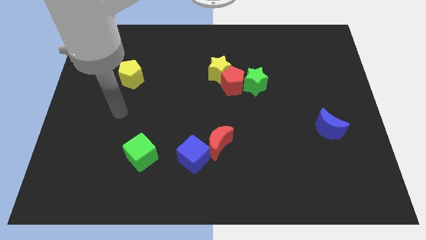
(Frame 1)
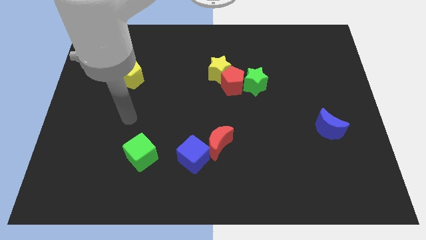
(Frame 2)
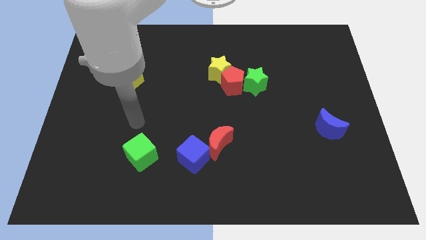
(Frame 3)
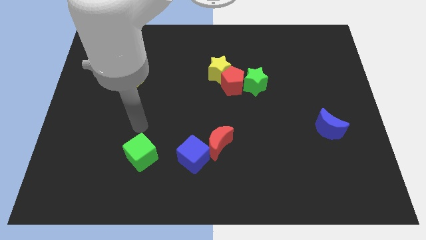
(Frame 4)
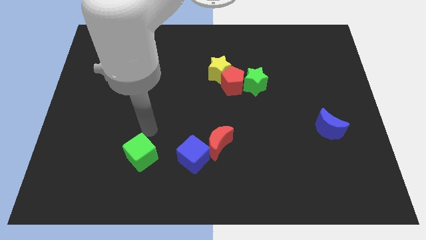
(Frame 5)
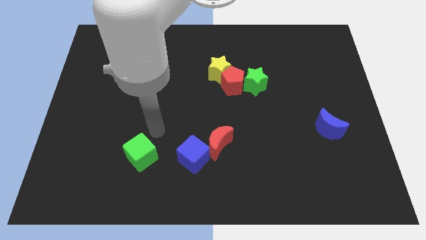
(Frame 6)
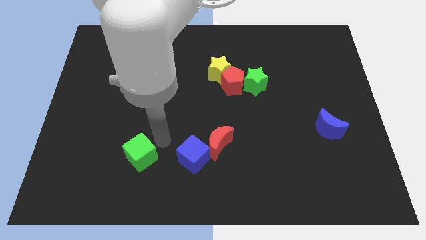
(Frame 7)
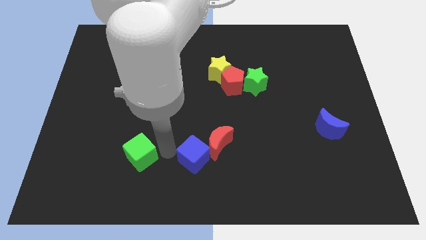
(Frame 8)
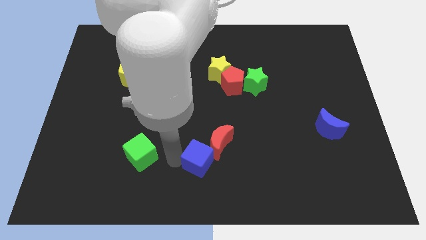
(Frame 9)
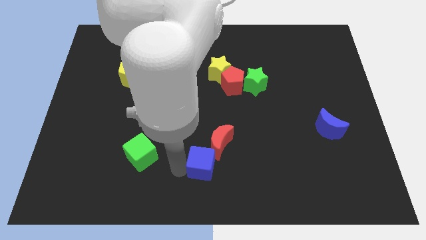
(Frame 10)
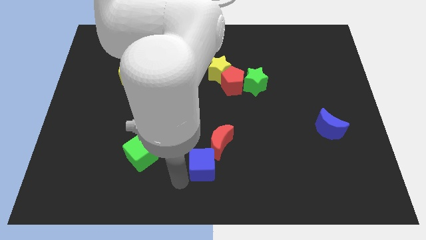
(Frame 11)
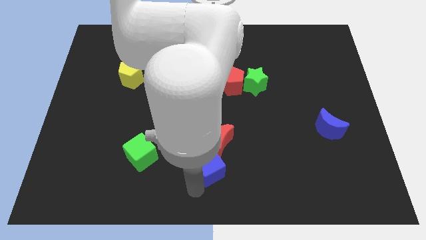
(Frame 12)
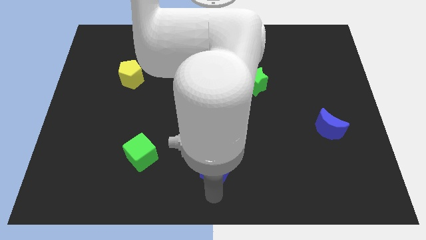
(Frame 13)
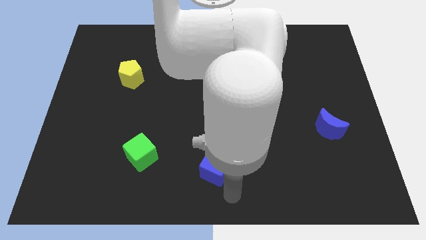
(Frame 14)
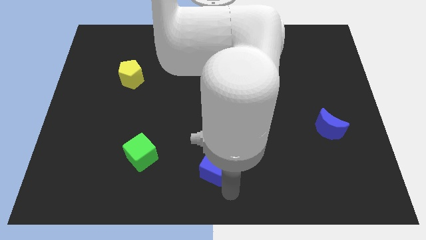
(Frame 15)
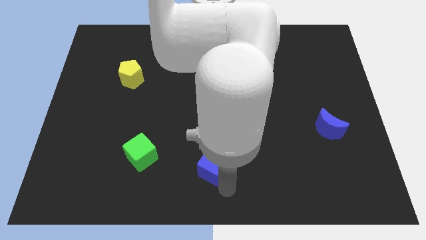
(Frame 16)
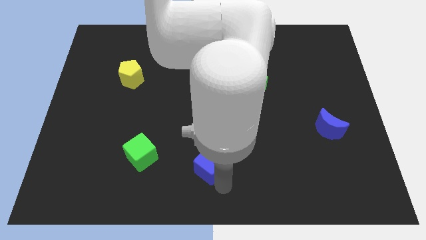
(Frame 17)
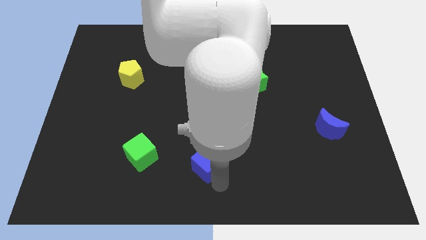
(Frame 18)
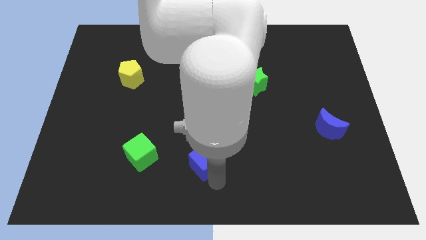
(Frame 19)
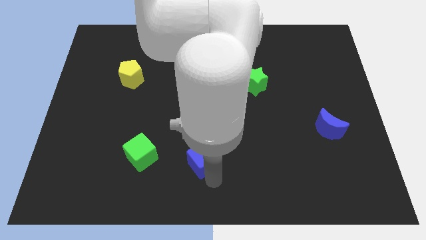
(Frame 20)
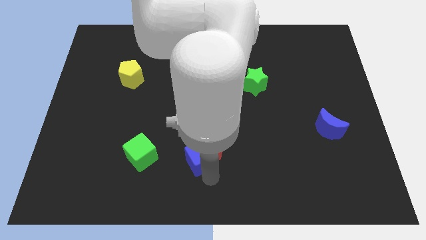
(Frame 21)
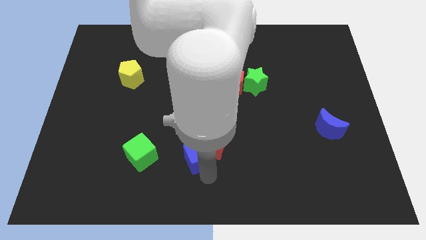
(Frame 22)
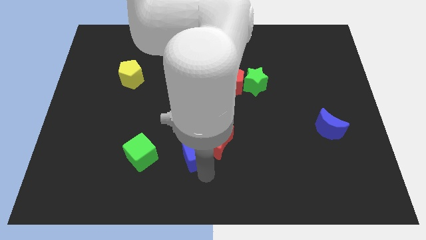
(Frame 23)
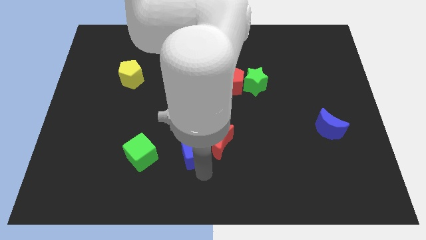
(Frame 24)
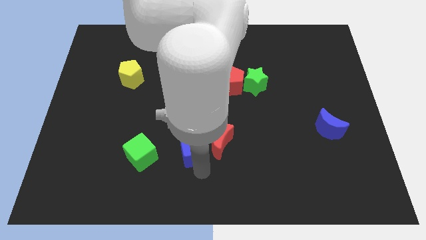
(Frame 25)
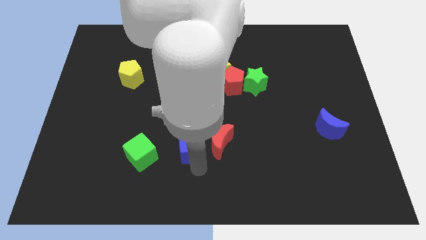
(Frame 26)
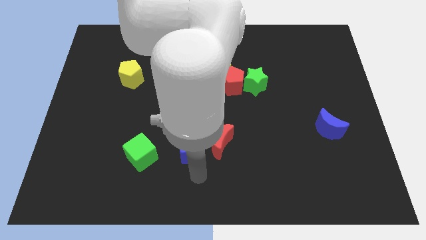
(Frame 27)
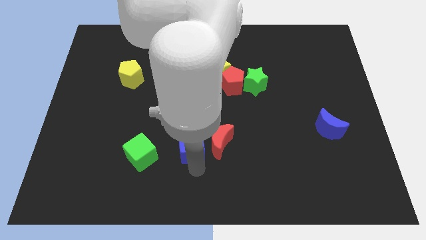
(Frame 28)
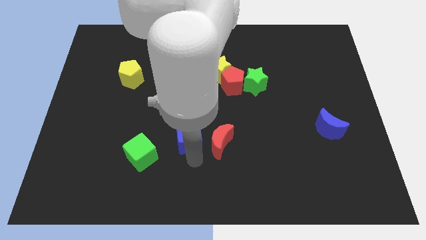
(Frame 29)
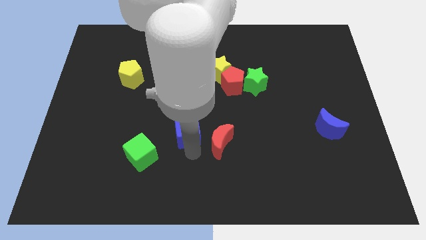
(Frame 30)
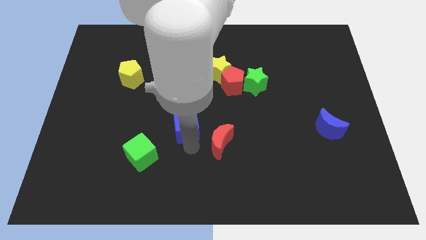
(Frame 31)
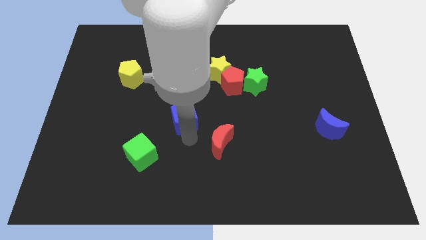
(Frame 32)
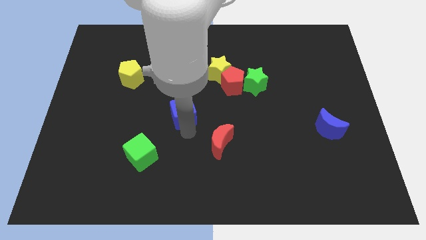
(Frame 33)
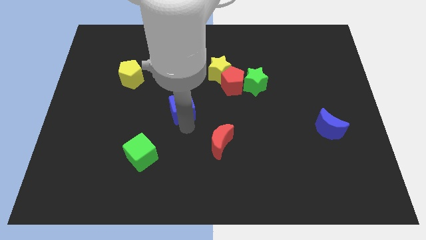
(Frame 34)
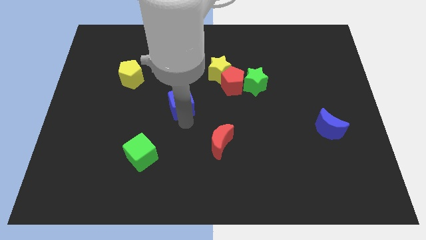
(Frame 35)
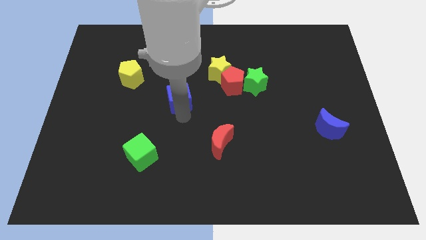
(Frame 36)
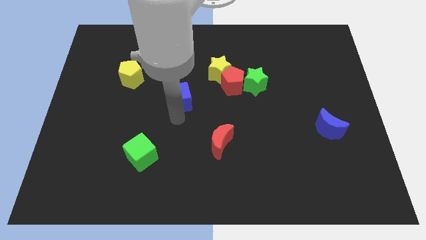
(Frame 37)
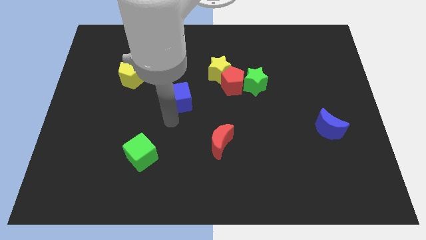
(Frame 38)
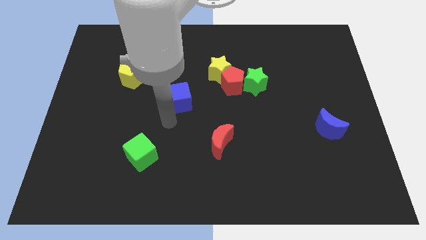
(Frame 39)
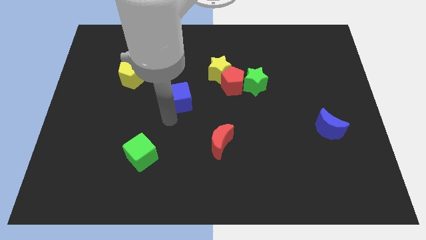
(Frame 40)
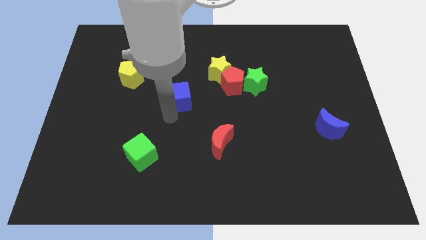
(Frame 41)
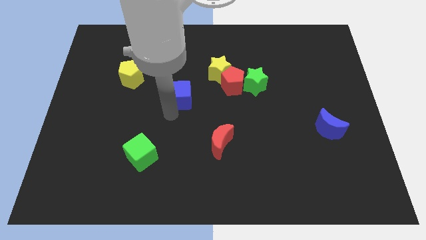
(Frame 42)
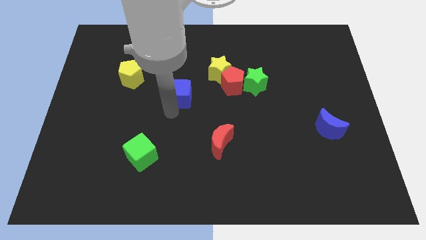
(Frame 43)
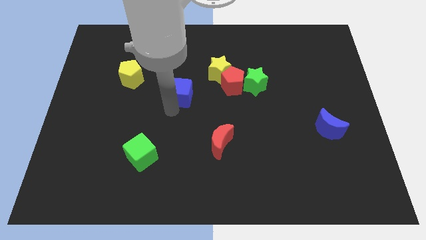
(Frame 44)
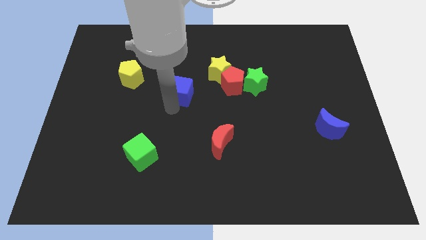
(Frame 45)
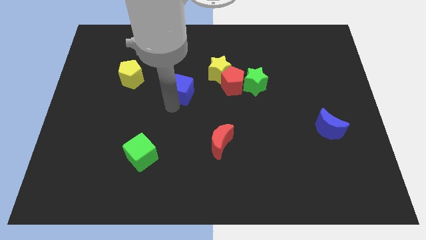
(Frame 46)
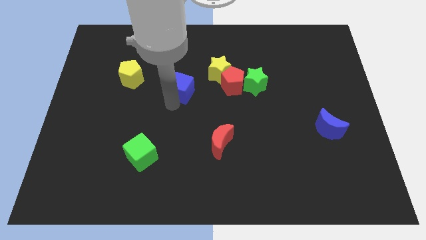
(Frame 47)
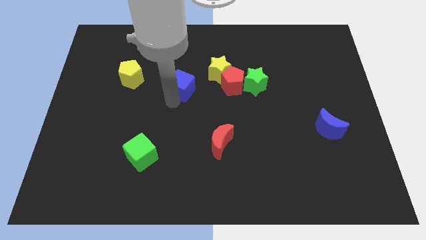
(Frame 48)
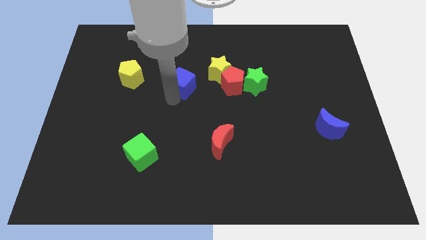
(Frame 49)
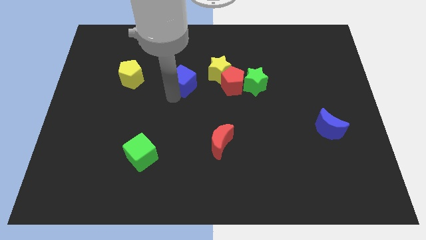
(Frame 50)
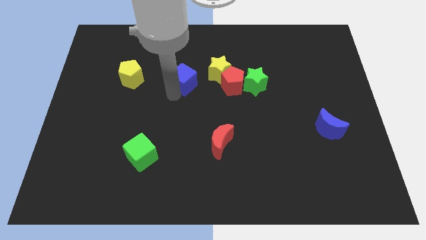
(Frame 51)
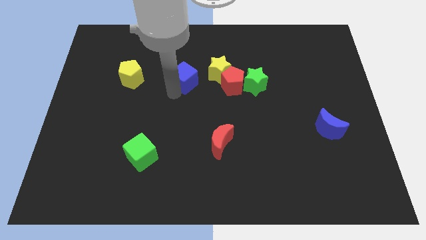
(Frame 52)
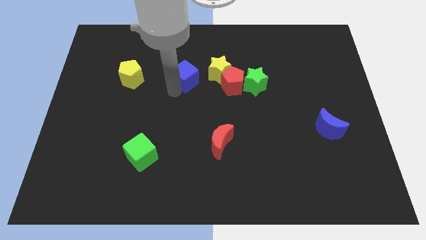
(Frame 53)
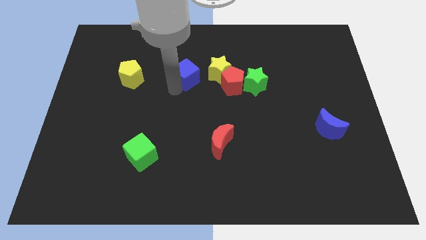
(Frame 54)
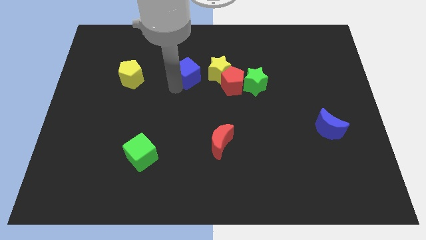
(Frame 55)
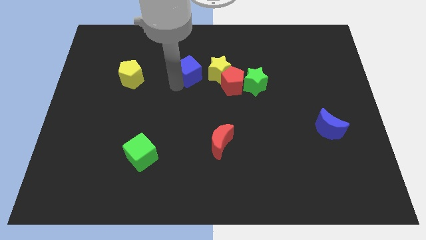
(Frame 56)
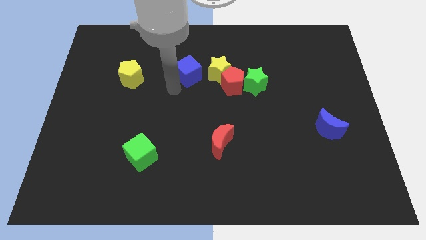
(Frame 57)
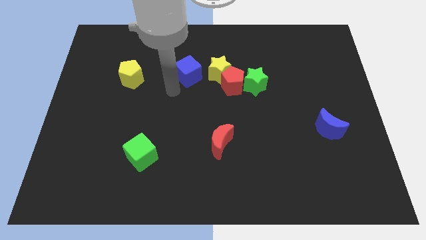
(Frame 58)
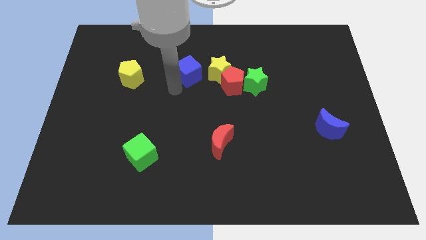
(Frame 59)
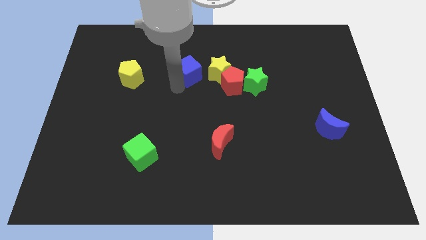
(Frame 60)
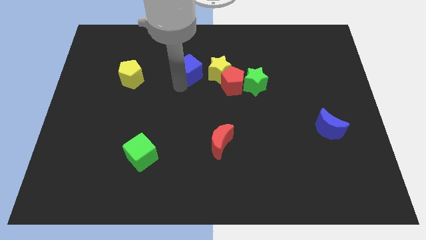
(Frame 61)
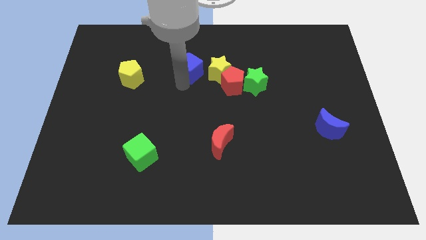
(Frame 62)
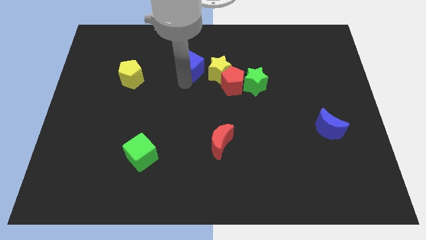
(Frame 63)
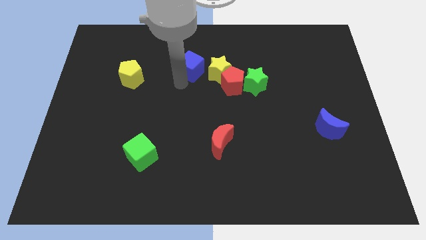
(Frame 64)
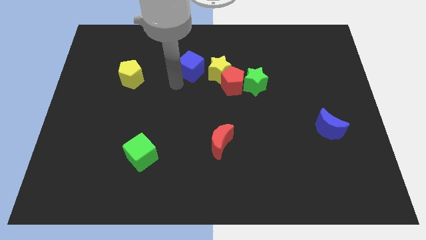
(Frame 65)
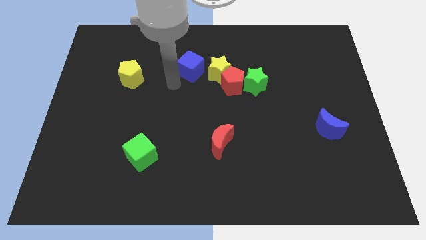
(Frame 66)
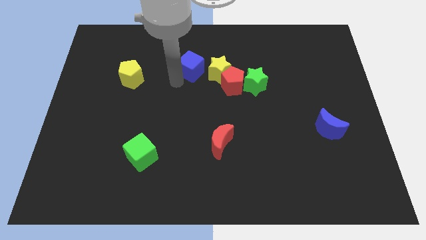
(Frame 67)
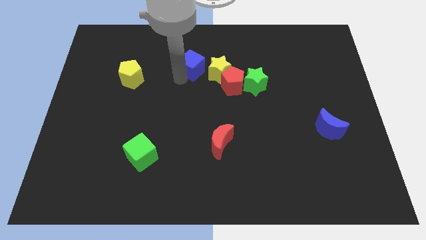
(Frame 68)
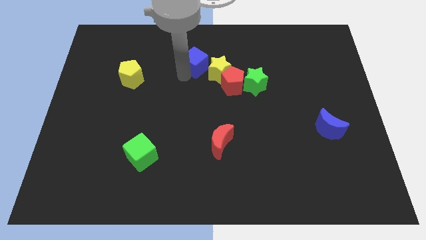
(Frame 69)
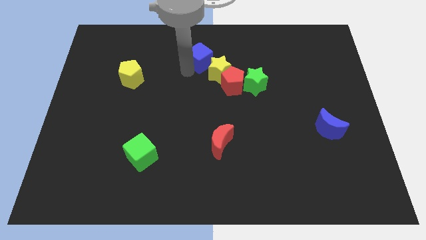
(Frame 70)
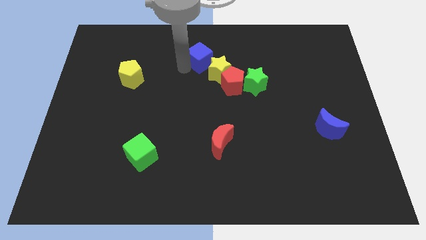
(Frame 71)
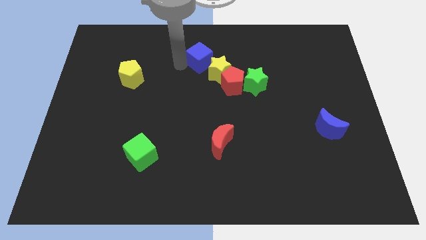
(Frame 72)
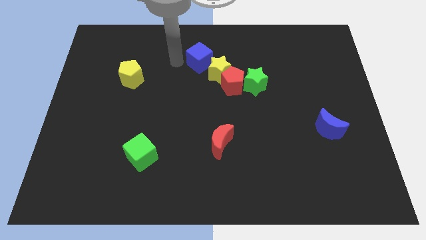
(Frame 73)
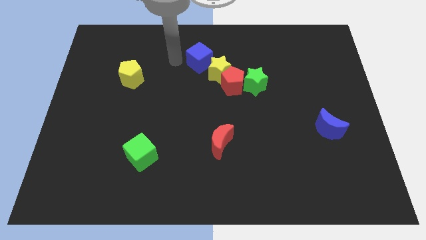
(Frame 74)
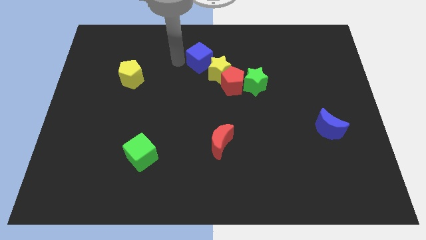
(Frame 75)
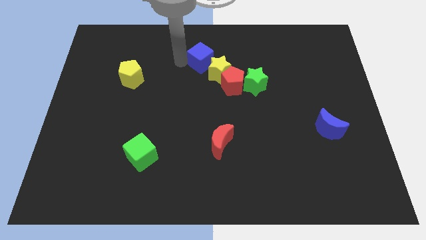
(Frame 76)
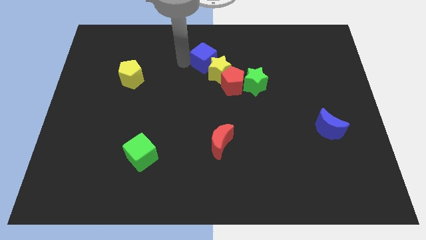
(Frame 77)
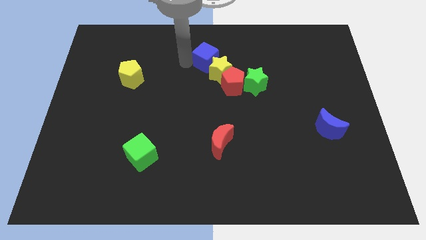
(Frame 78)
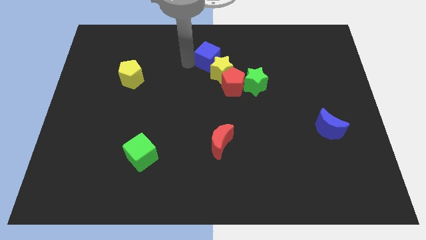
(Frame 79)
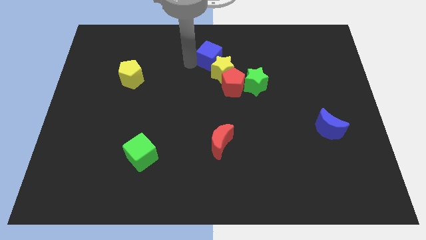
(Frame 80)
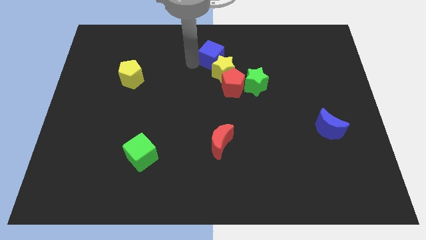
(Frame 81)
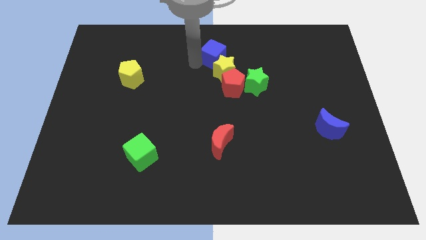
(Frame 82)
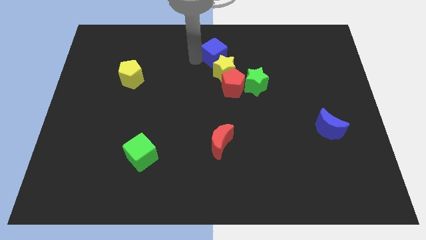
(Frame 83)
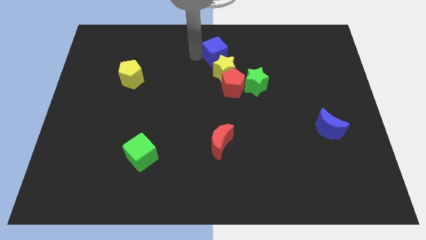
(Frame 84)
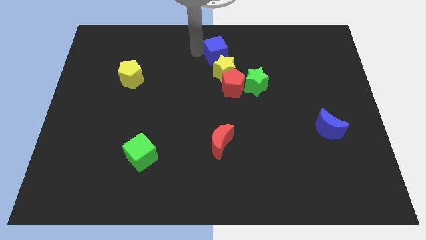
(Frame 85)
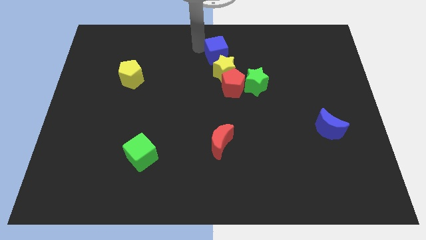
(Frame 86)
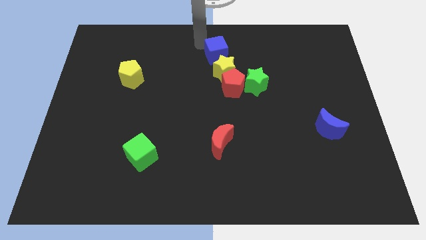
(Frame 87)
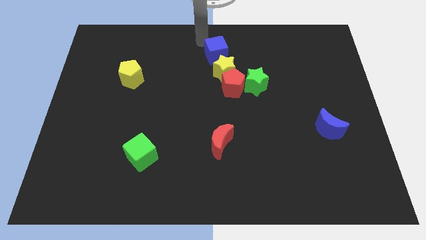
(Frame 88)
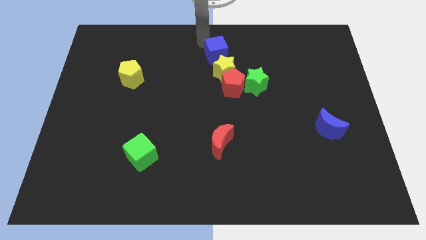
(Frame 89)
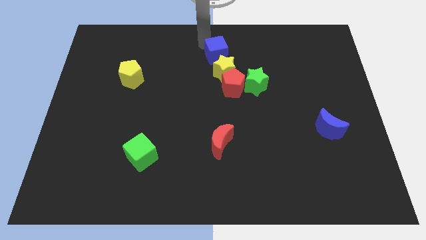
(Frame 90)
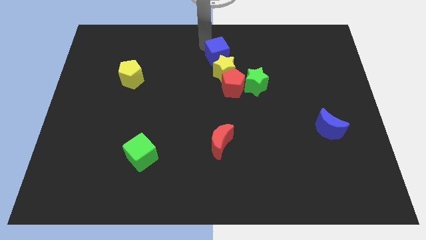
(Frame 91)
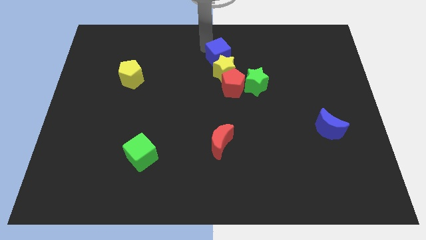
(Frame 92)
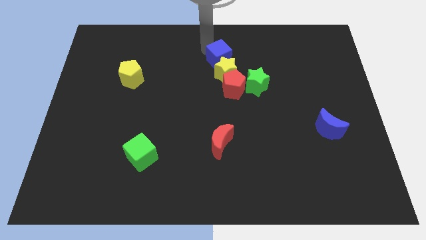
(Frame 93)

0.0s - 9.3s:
slide the blue cube to the top left of the green star
